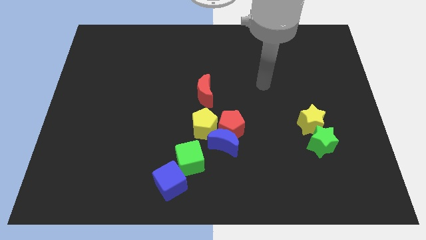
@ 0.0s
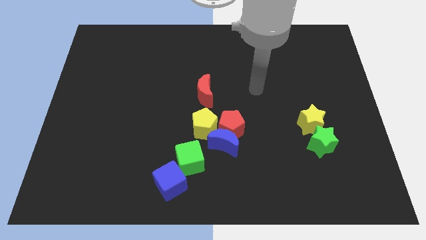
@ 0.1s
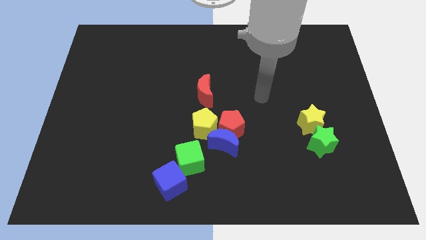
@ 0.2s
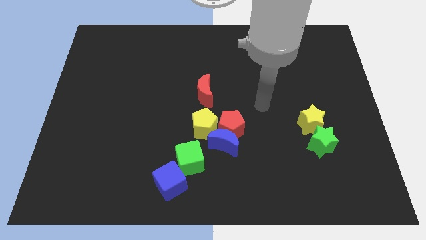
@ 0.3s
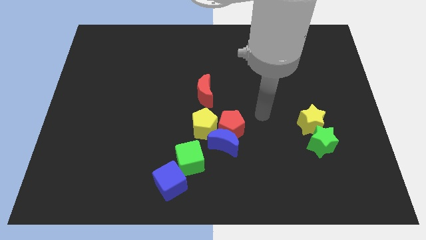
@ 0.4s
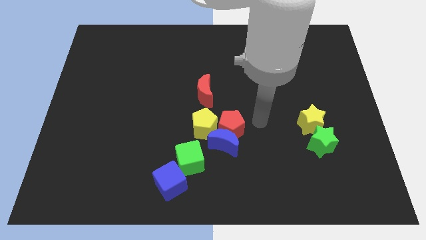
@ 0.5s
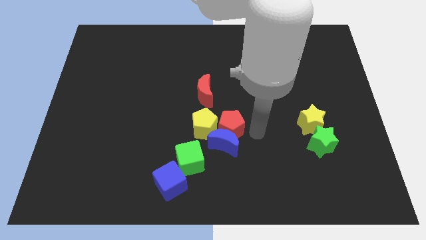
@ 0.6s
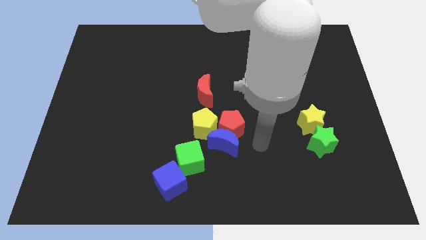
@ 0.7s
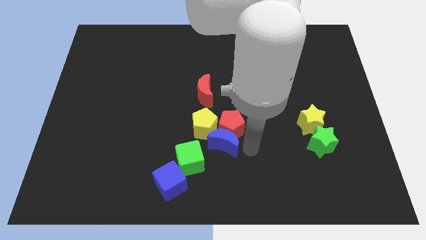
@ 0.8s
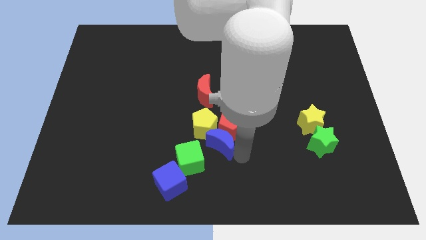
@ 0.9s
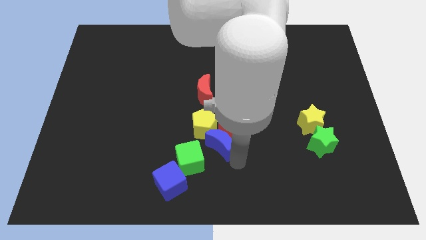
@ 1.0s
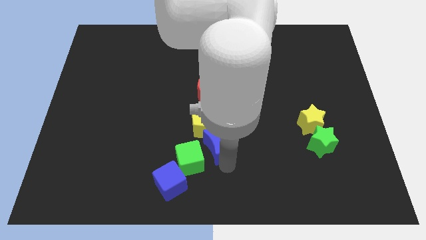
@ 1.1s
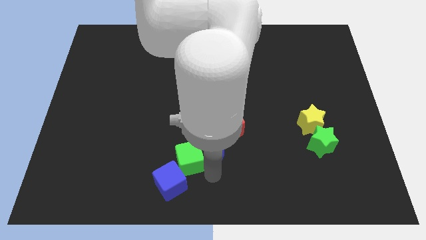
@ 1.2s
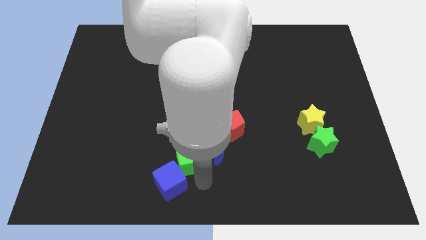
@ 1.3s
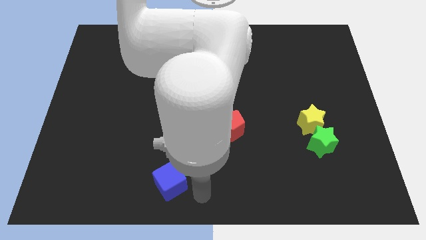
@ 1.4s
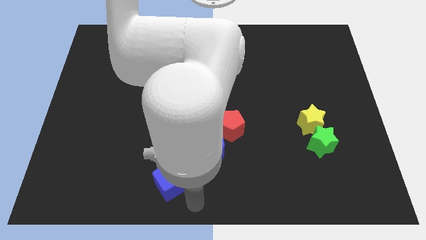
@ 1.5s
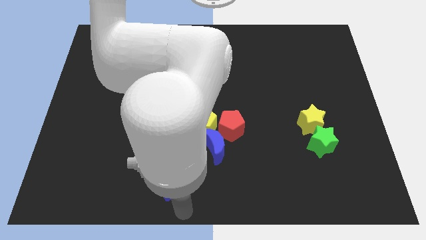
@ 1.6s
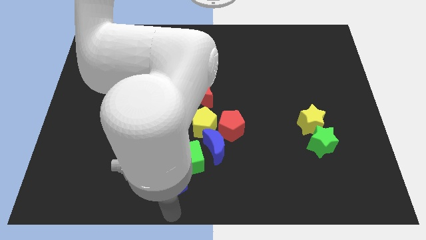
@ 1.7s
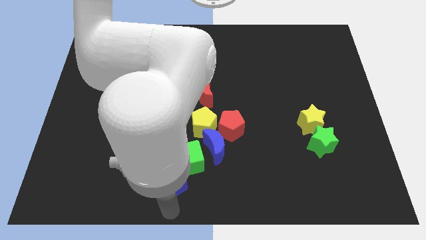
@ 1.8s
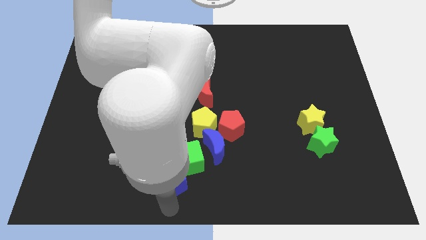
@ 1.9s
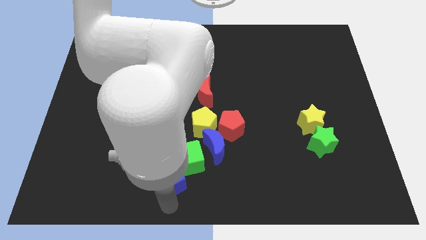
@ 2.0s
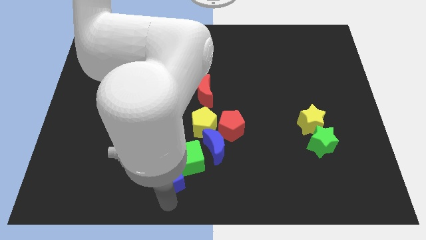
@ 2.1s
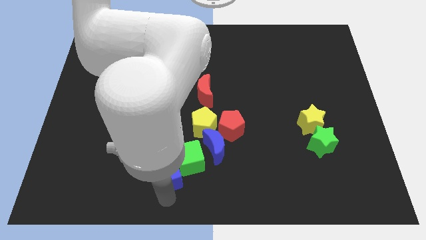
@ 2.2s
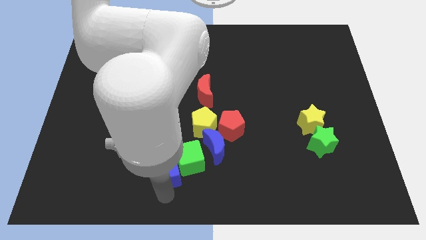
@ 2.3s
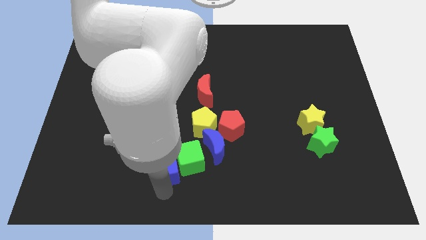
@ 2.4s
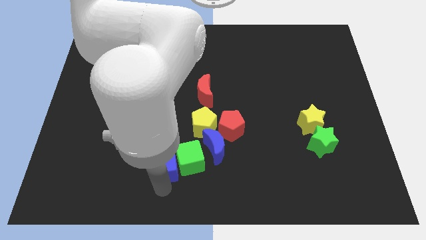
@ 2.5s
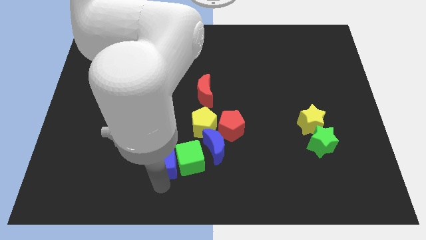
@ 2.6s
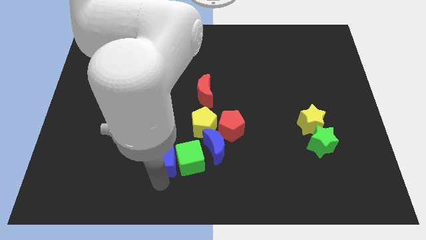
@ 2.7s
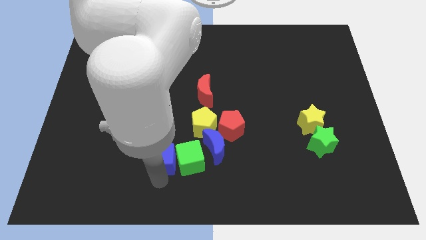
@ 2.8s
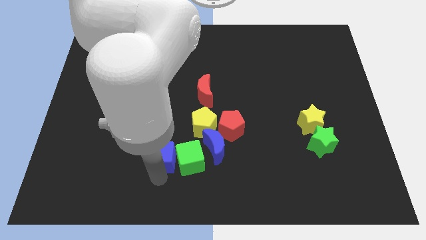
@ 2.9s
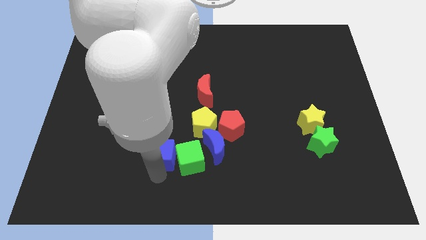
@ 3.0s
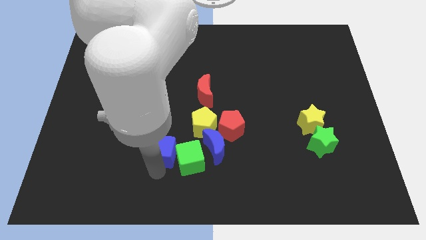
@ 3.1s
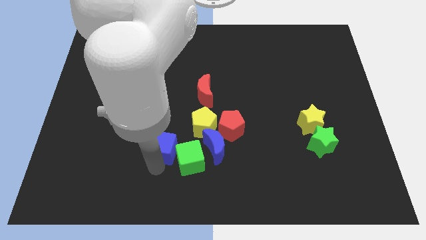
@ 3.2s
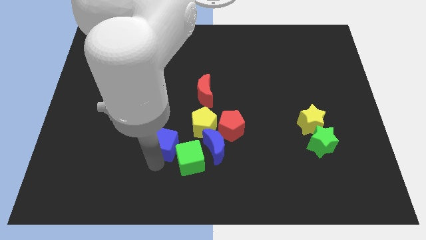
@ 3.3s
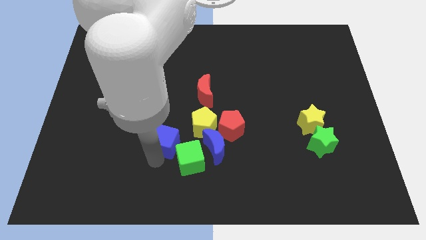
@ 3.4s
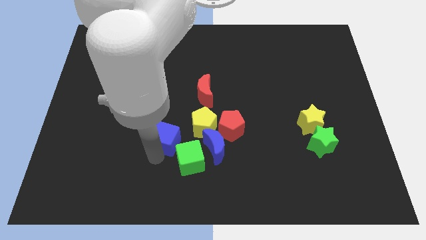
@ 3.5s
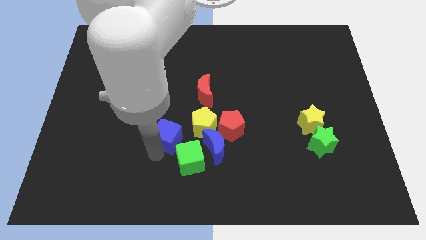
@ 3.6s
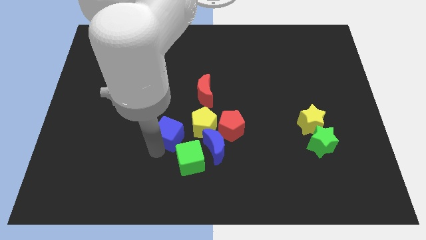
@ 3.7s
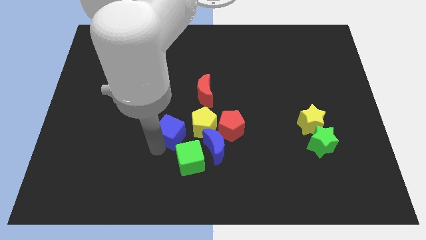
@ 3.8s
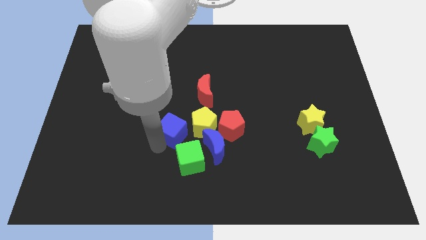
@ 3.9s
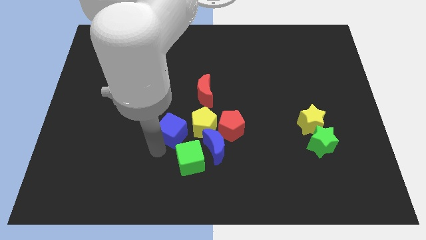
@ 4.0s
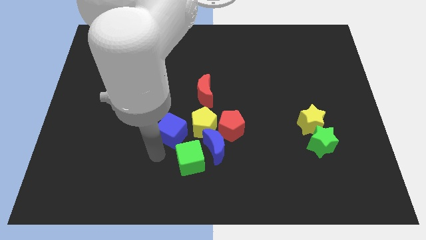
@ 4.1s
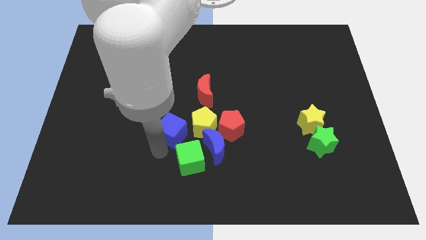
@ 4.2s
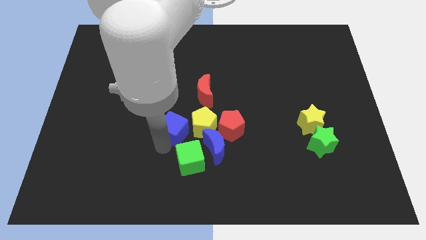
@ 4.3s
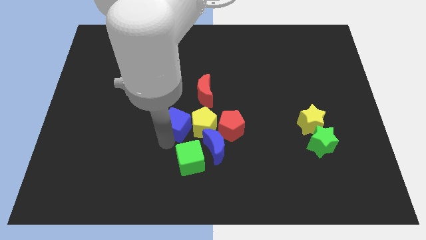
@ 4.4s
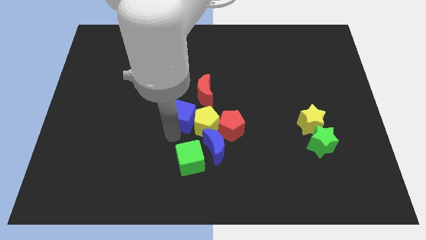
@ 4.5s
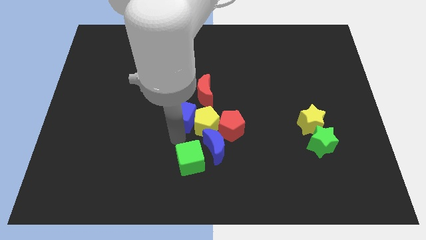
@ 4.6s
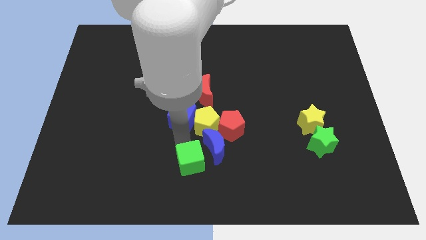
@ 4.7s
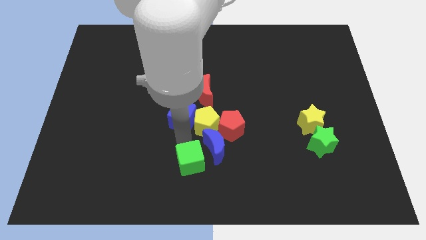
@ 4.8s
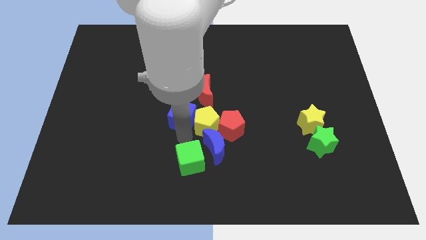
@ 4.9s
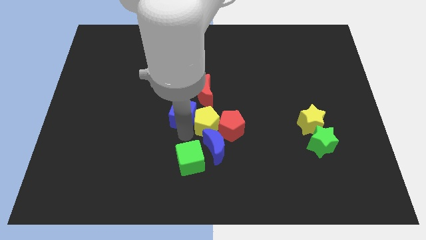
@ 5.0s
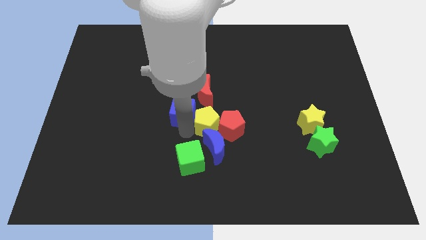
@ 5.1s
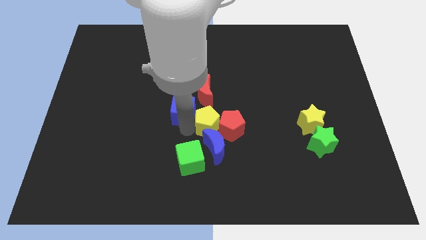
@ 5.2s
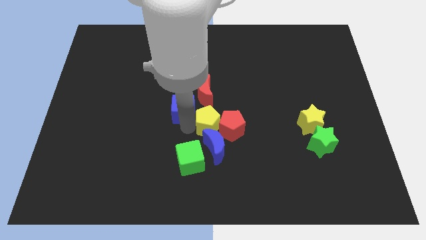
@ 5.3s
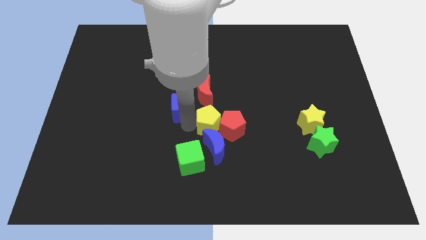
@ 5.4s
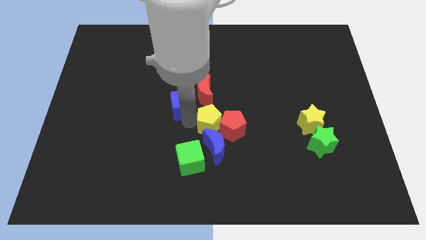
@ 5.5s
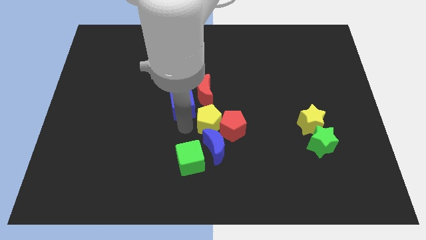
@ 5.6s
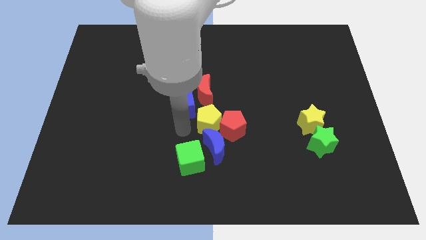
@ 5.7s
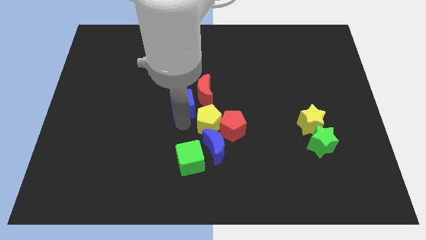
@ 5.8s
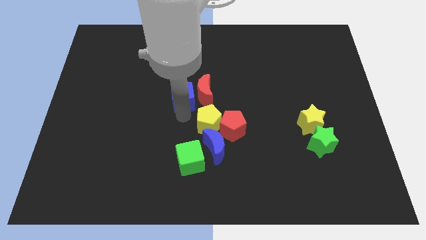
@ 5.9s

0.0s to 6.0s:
put the blue cube to the top left side of the red moon
